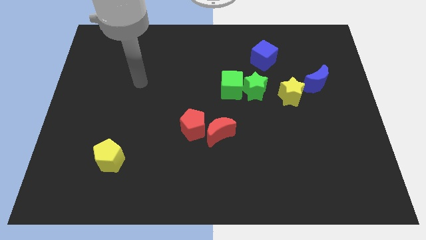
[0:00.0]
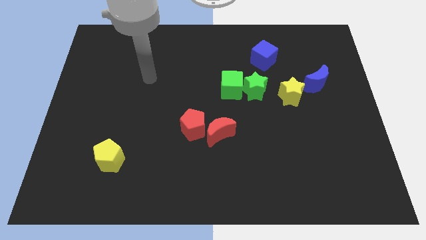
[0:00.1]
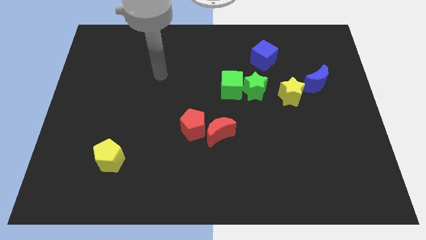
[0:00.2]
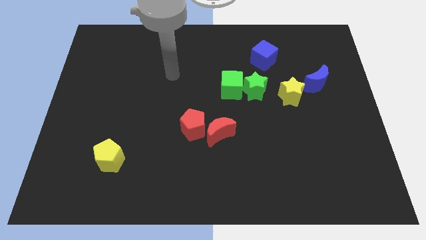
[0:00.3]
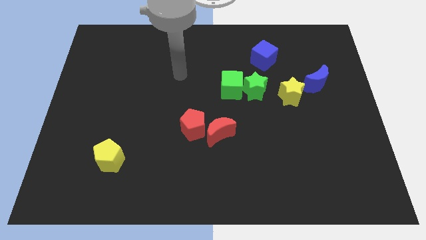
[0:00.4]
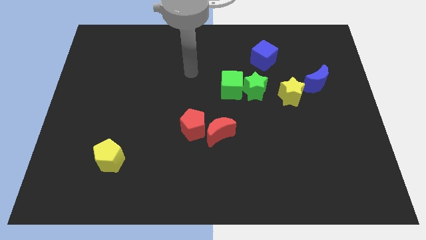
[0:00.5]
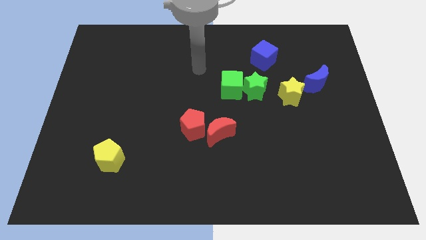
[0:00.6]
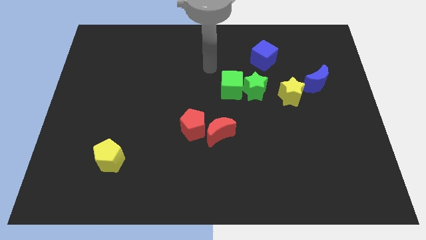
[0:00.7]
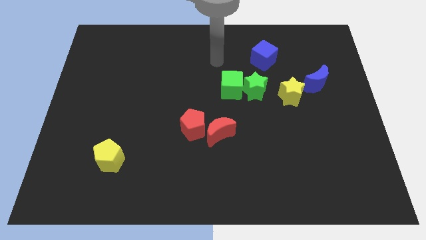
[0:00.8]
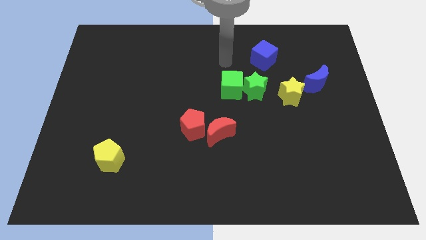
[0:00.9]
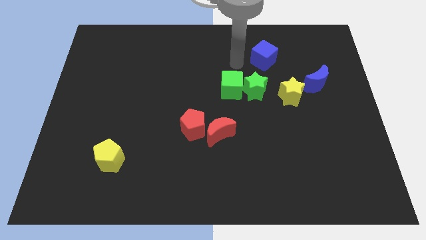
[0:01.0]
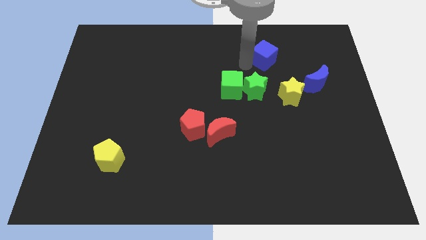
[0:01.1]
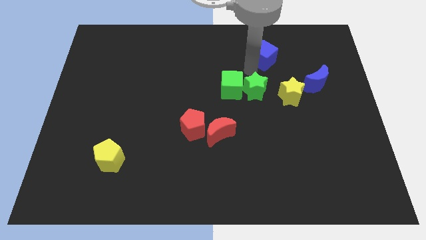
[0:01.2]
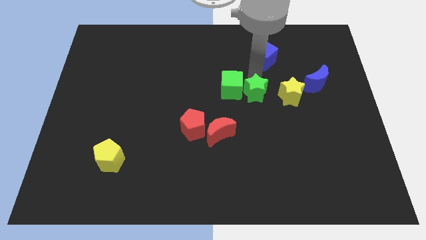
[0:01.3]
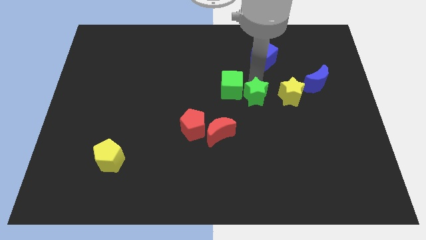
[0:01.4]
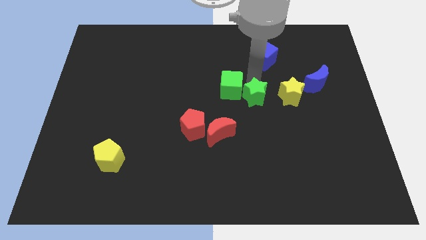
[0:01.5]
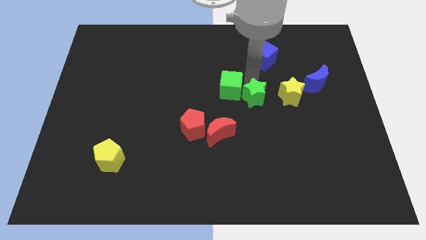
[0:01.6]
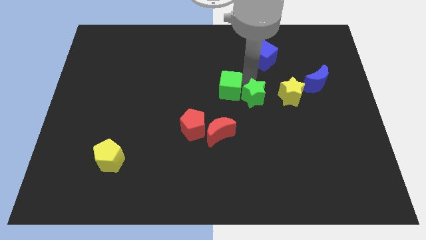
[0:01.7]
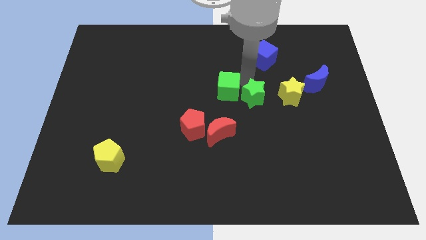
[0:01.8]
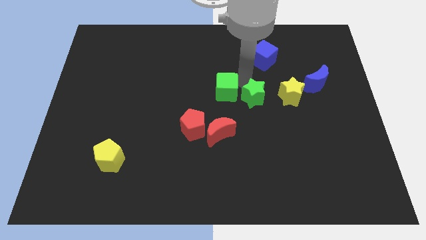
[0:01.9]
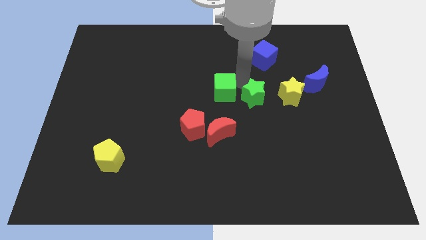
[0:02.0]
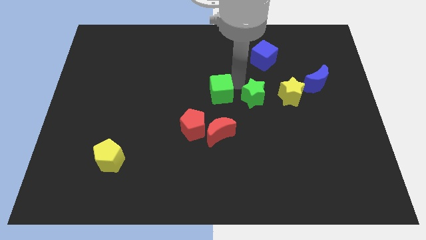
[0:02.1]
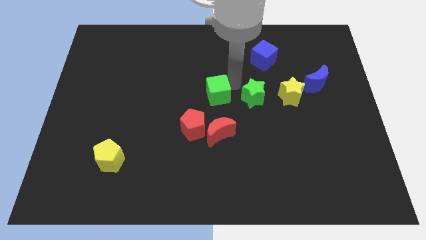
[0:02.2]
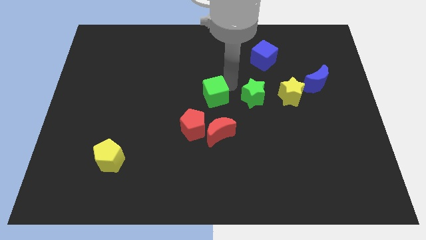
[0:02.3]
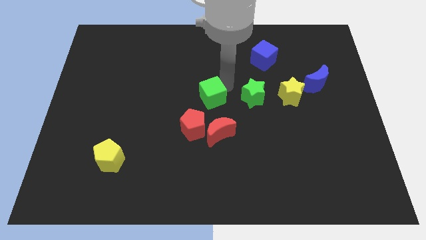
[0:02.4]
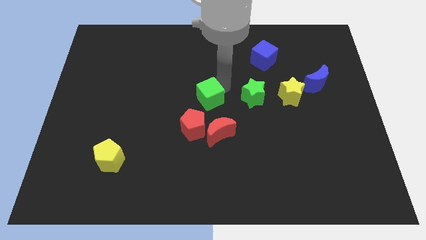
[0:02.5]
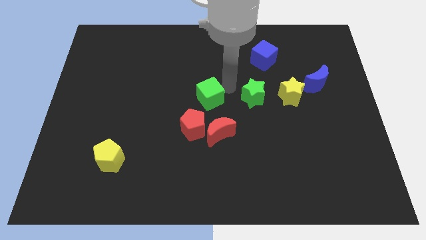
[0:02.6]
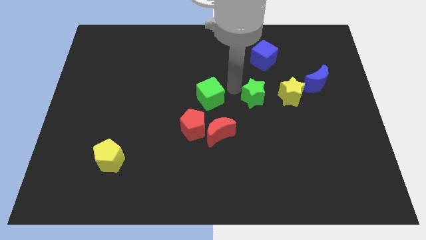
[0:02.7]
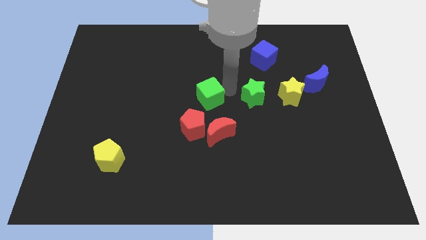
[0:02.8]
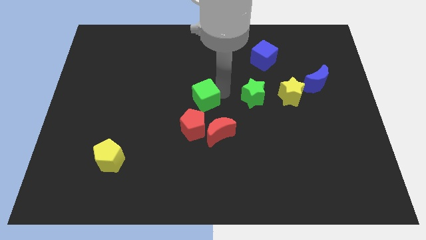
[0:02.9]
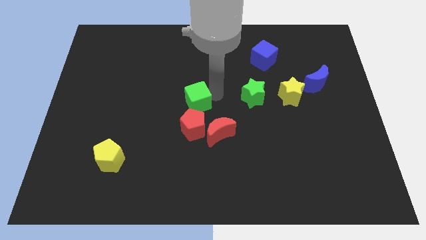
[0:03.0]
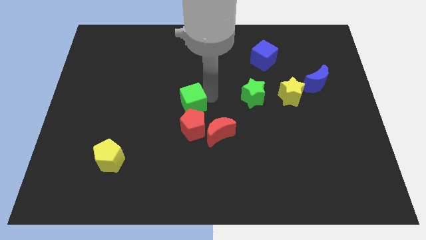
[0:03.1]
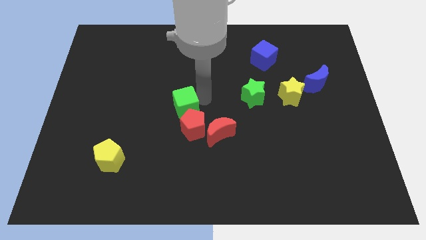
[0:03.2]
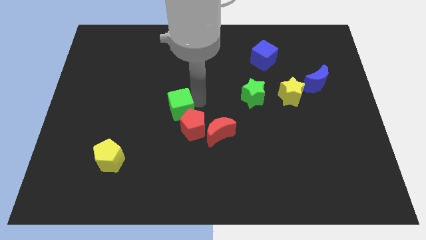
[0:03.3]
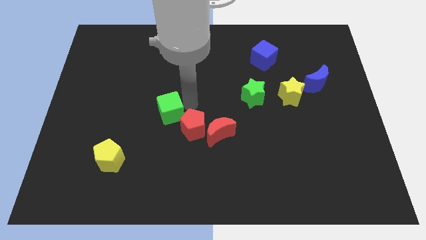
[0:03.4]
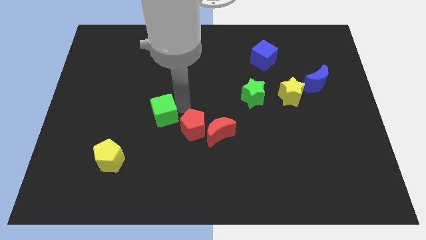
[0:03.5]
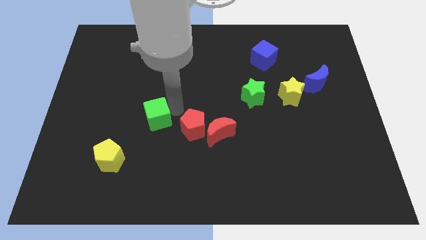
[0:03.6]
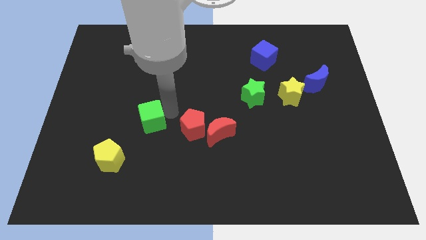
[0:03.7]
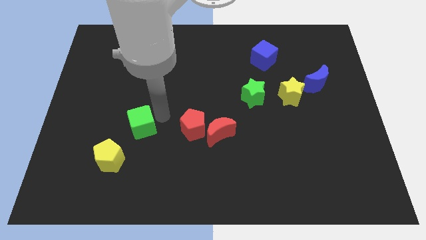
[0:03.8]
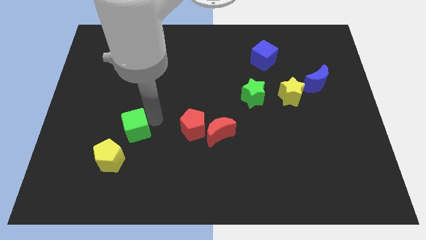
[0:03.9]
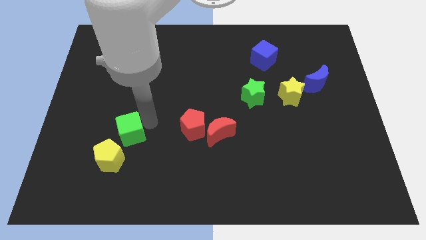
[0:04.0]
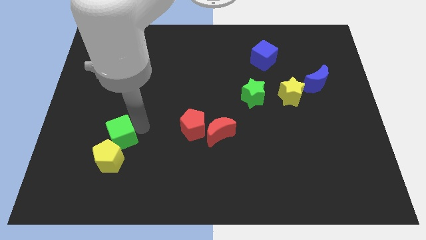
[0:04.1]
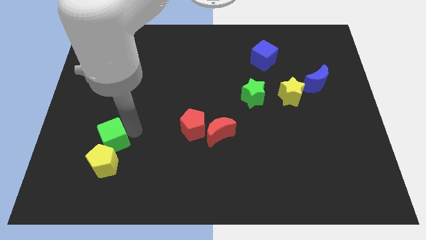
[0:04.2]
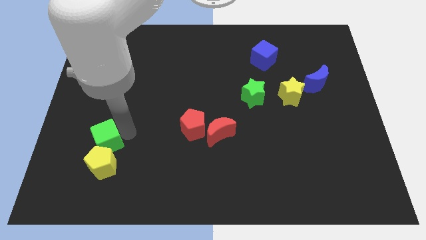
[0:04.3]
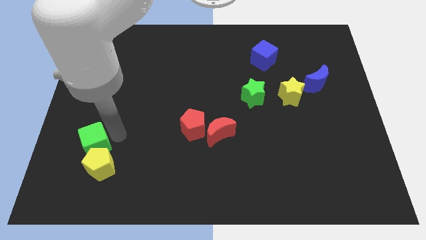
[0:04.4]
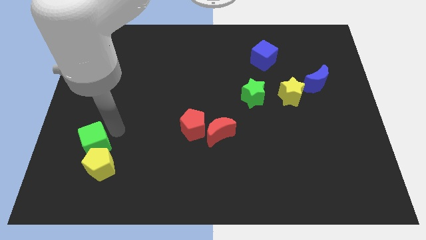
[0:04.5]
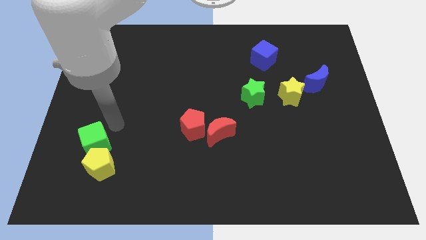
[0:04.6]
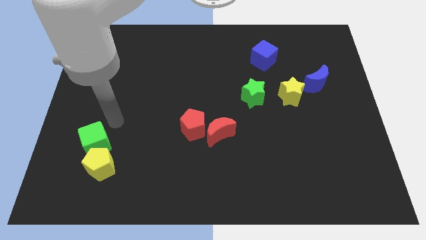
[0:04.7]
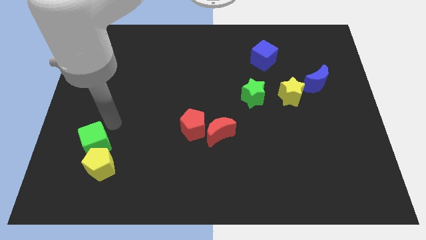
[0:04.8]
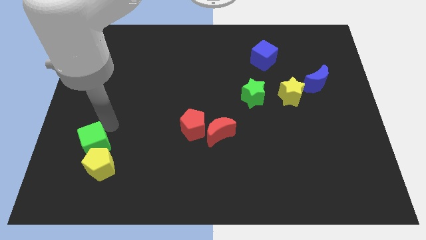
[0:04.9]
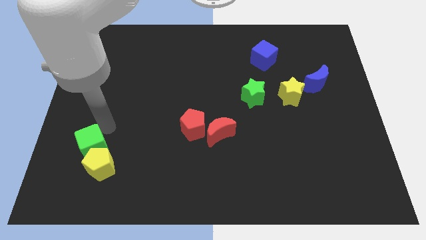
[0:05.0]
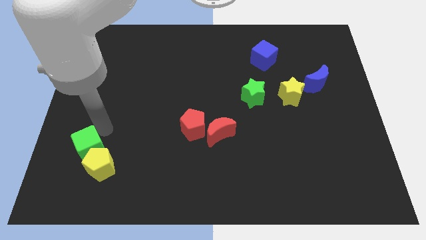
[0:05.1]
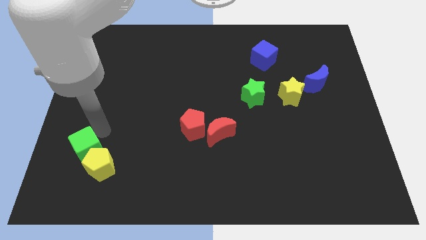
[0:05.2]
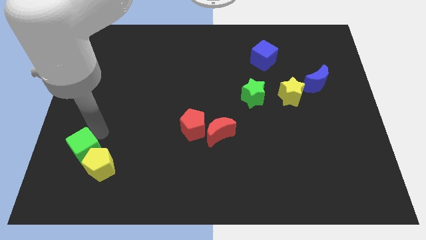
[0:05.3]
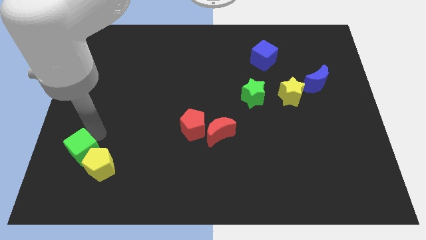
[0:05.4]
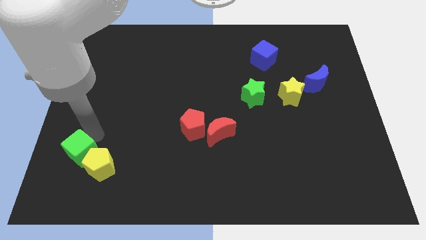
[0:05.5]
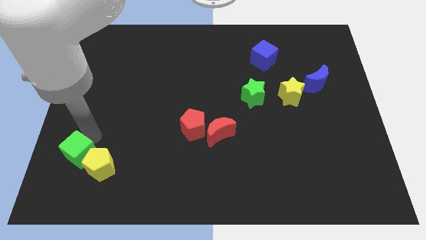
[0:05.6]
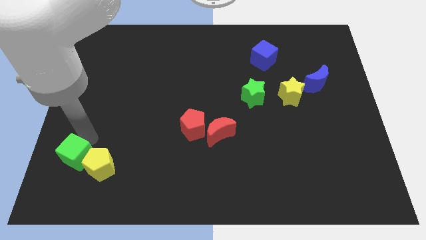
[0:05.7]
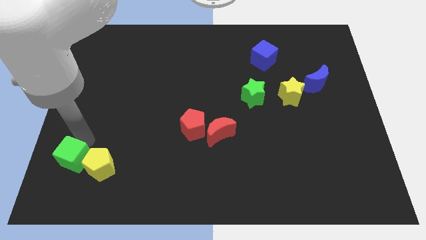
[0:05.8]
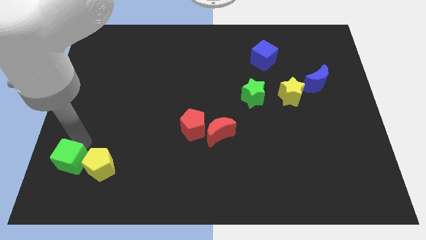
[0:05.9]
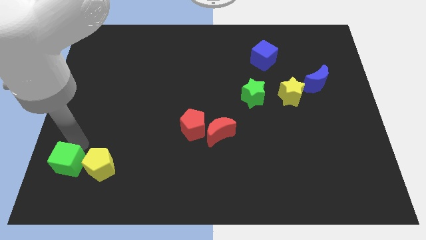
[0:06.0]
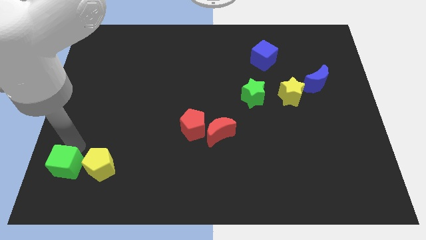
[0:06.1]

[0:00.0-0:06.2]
move the green cube to the lower left corner

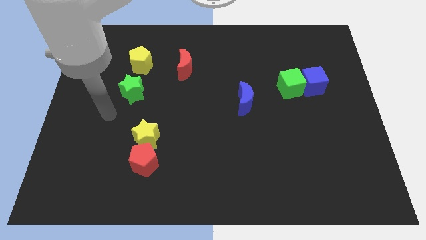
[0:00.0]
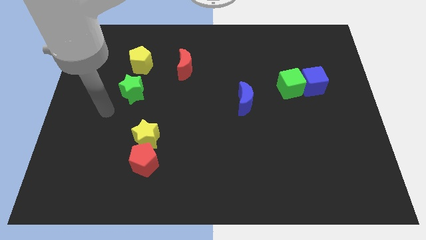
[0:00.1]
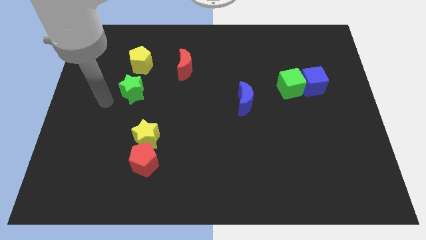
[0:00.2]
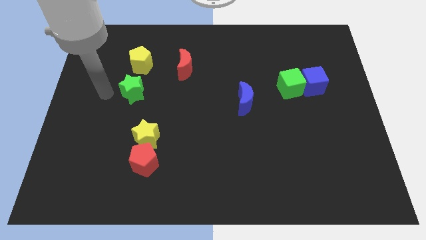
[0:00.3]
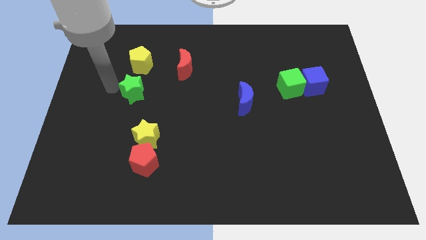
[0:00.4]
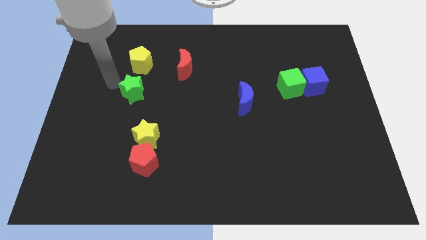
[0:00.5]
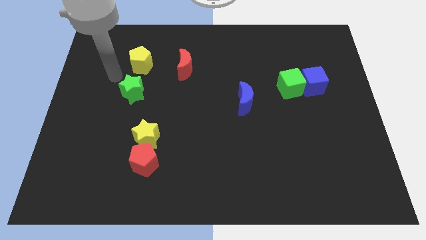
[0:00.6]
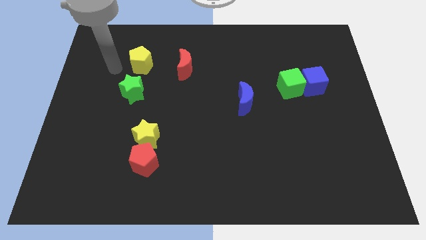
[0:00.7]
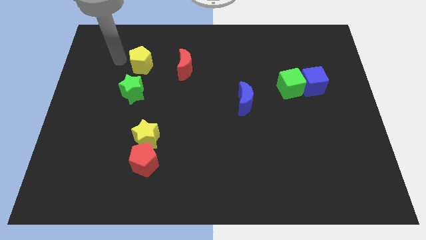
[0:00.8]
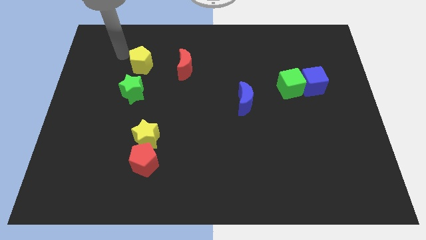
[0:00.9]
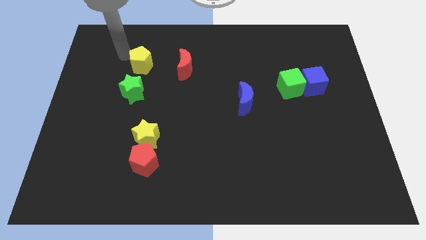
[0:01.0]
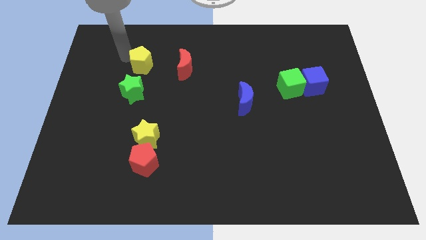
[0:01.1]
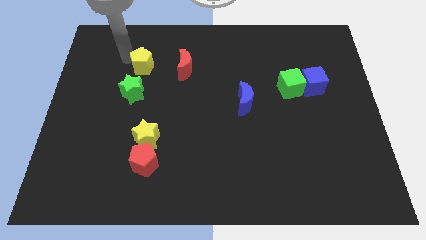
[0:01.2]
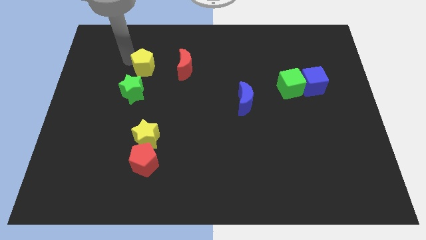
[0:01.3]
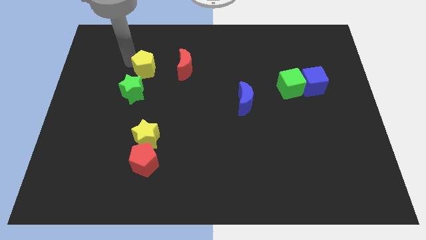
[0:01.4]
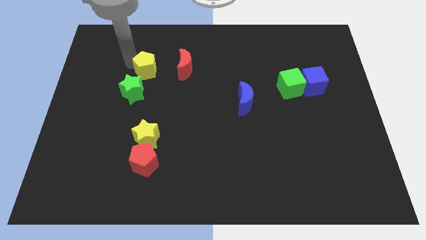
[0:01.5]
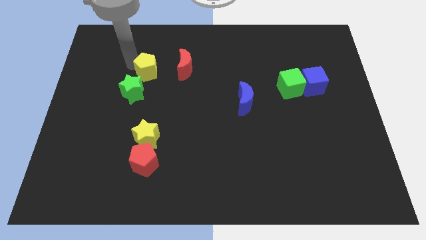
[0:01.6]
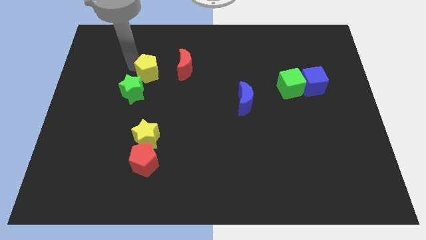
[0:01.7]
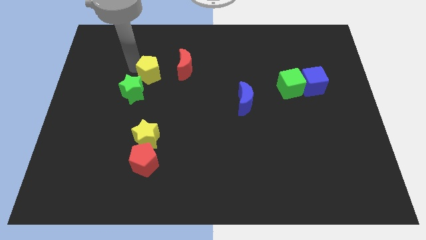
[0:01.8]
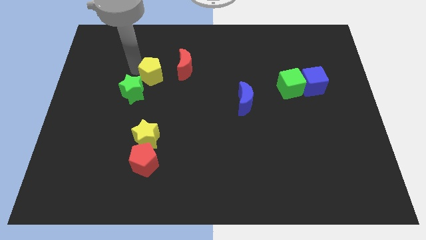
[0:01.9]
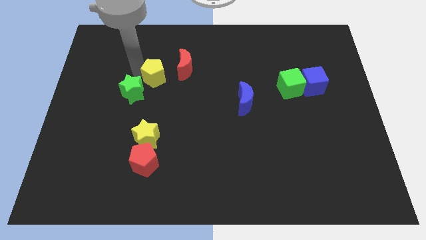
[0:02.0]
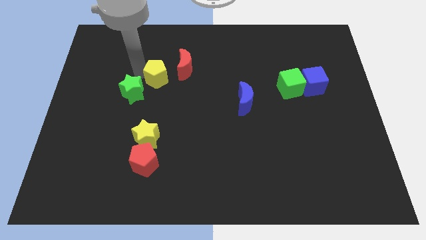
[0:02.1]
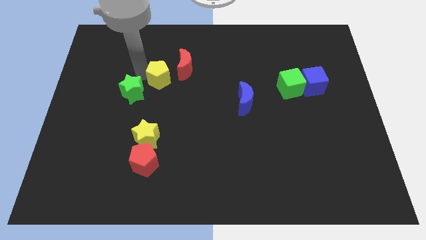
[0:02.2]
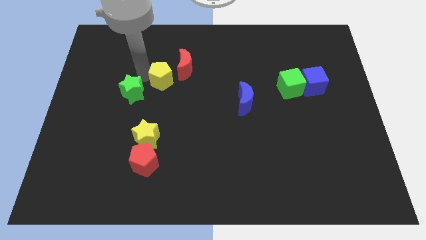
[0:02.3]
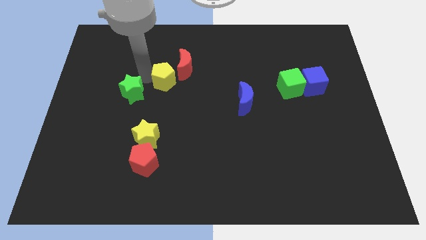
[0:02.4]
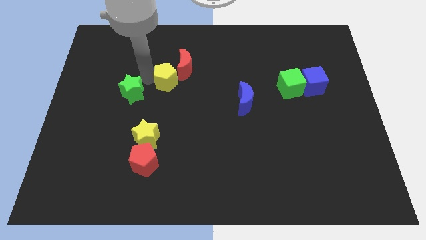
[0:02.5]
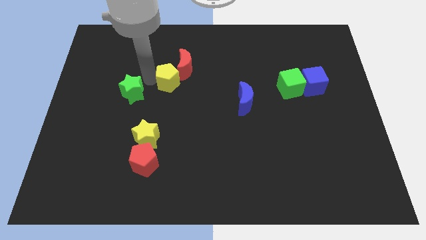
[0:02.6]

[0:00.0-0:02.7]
push the yellow pentagon to the center of the board
